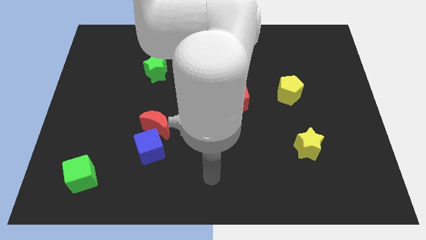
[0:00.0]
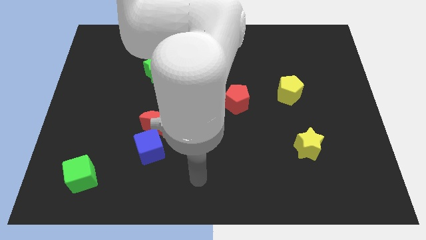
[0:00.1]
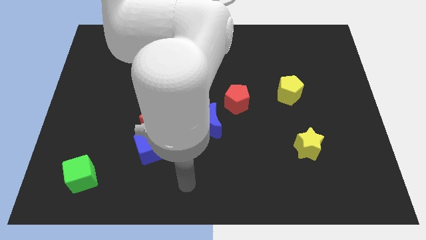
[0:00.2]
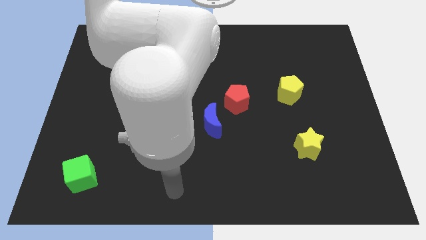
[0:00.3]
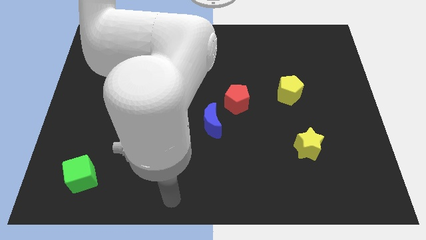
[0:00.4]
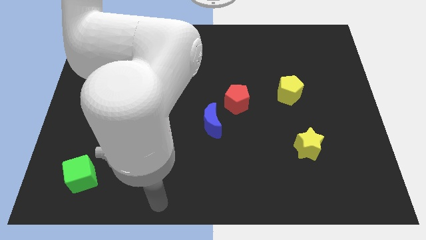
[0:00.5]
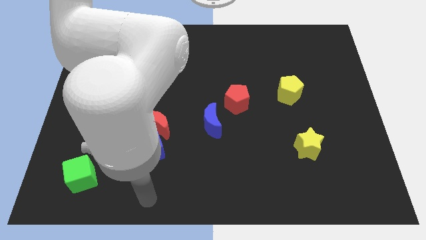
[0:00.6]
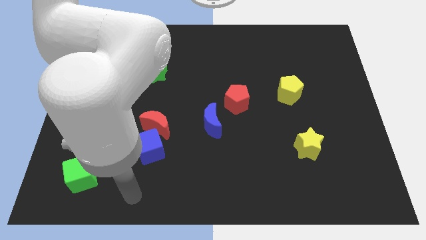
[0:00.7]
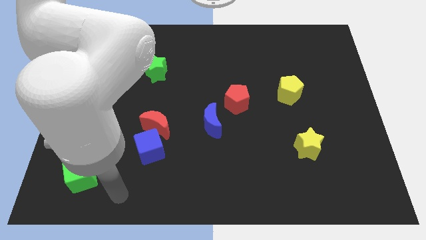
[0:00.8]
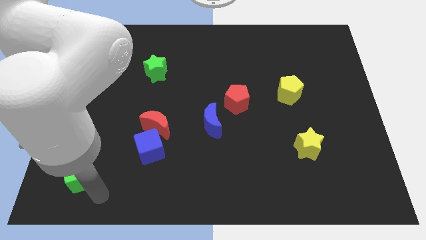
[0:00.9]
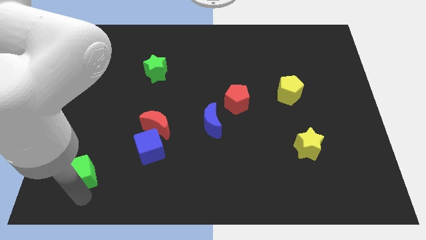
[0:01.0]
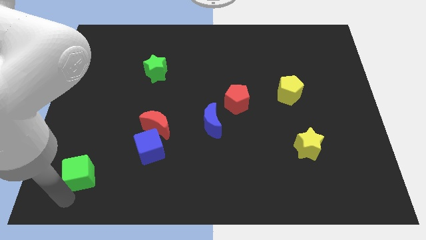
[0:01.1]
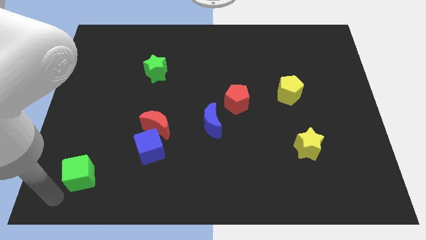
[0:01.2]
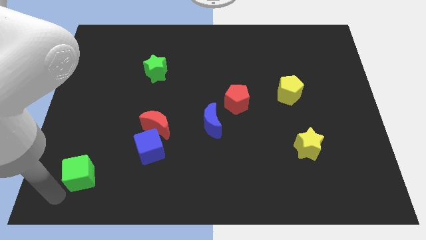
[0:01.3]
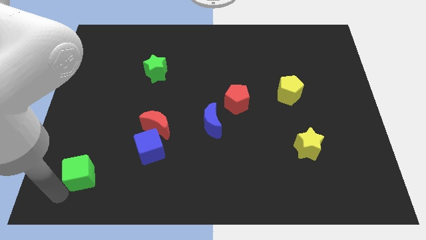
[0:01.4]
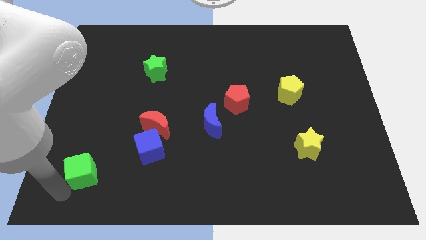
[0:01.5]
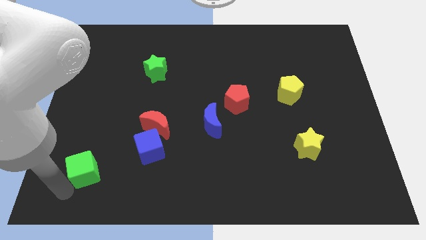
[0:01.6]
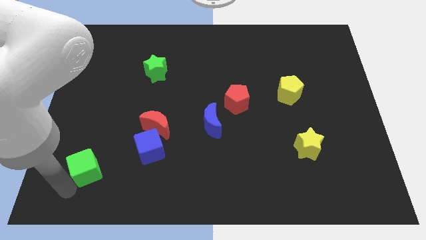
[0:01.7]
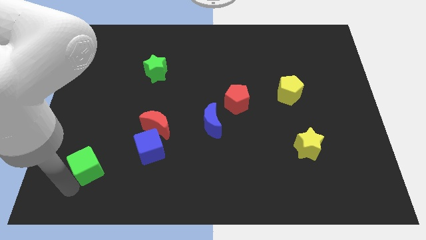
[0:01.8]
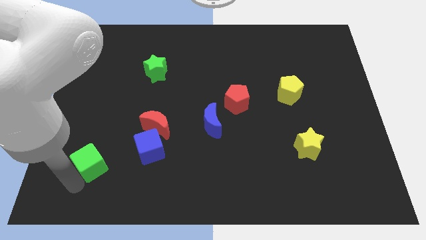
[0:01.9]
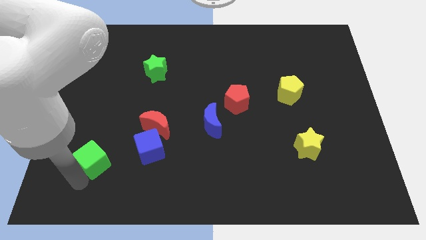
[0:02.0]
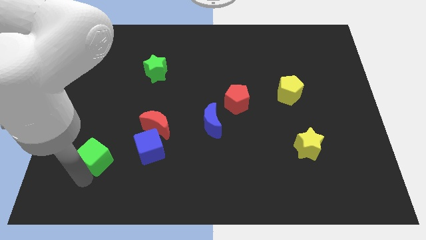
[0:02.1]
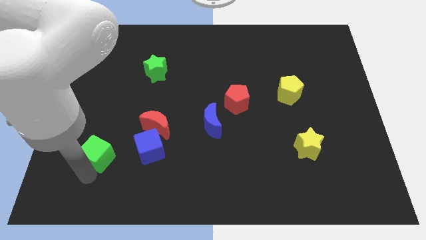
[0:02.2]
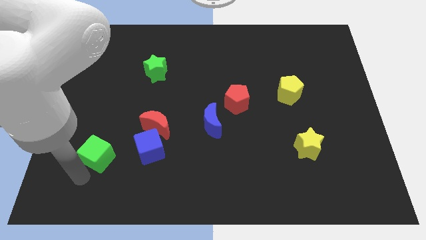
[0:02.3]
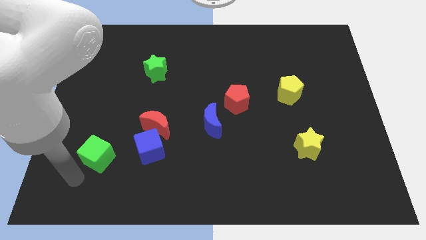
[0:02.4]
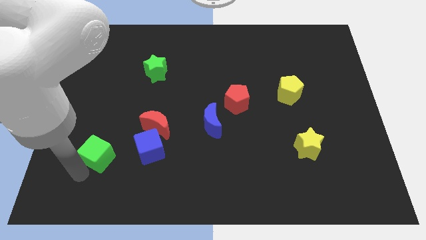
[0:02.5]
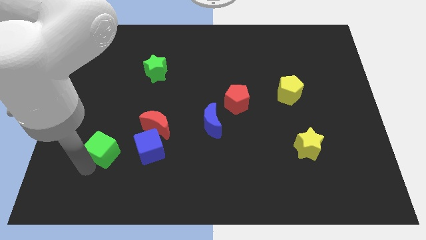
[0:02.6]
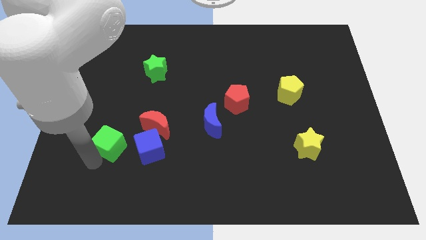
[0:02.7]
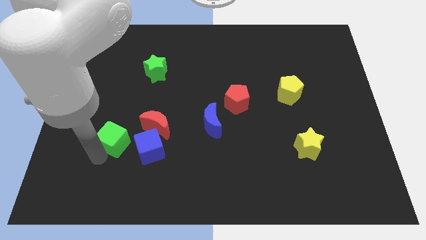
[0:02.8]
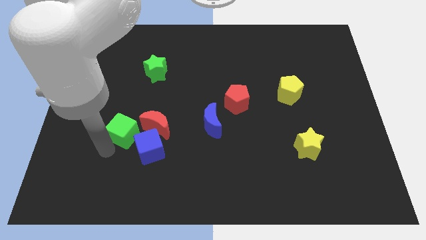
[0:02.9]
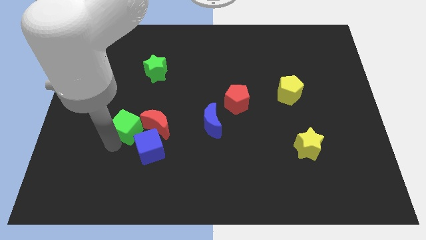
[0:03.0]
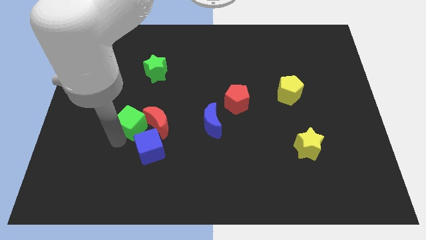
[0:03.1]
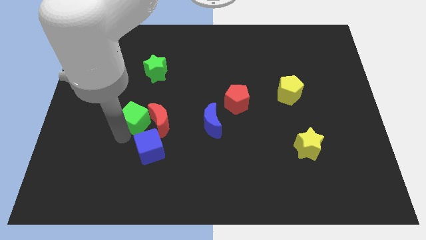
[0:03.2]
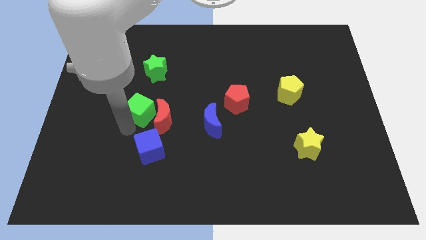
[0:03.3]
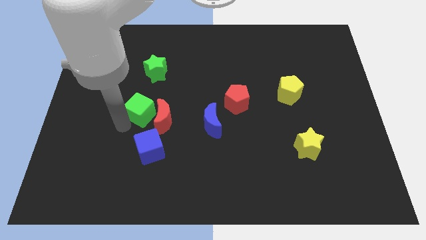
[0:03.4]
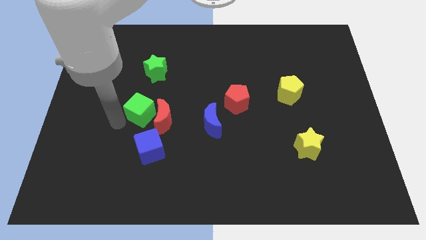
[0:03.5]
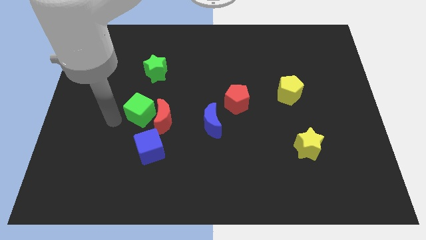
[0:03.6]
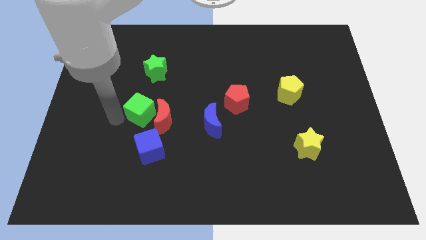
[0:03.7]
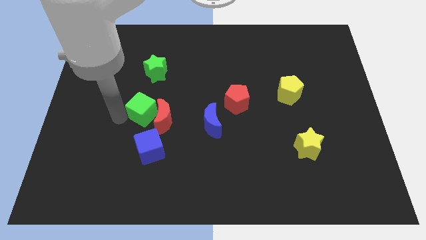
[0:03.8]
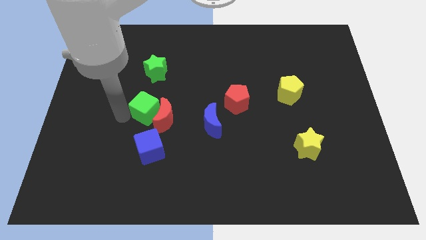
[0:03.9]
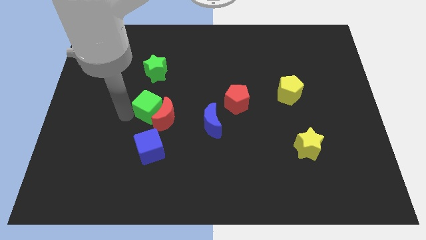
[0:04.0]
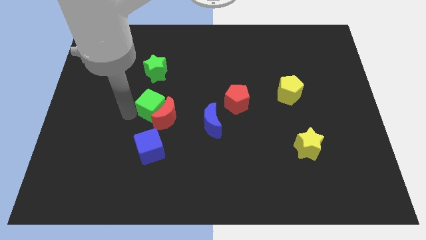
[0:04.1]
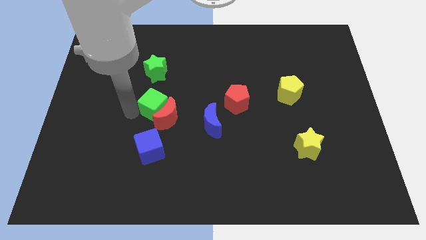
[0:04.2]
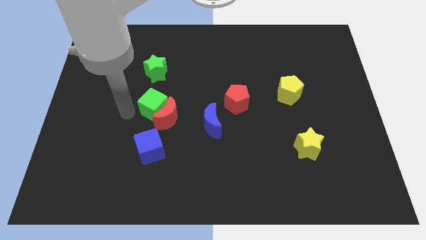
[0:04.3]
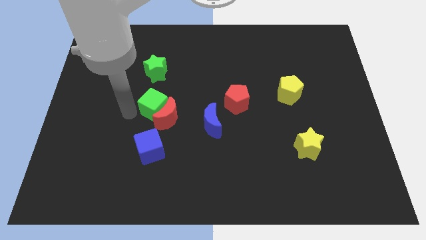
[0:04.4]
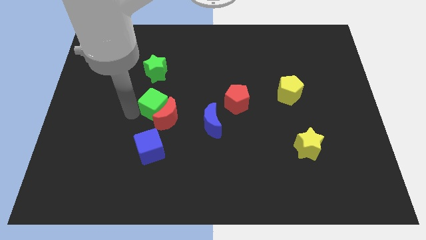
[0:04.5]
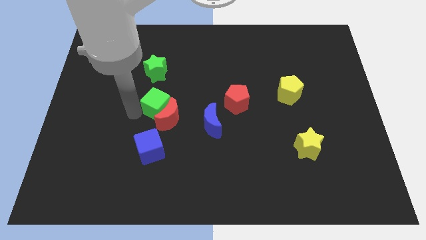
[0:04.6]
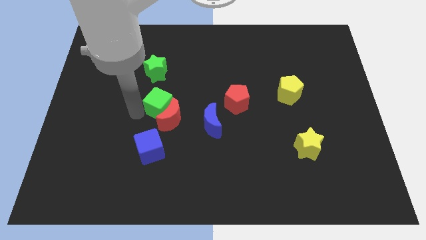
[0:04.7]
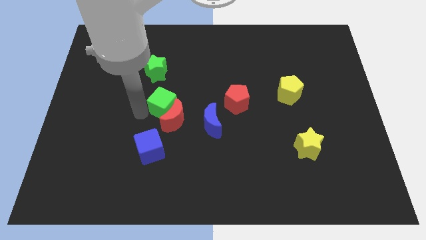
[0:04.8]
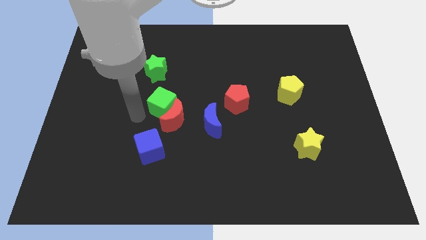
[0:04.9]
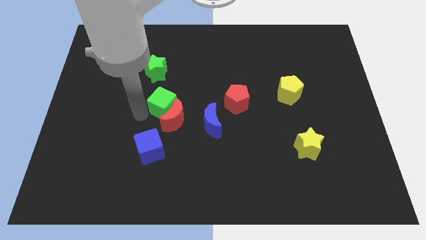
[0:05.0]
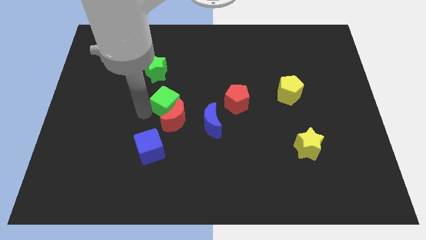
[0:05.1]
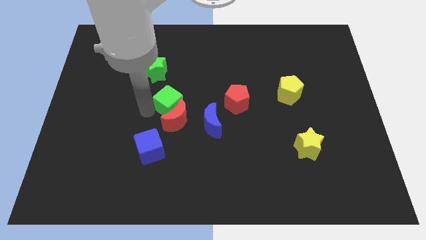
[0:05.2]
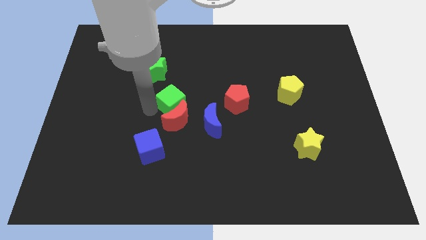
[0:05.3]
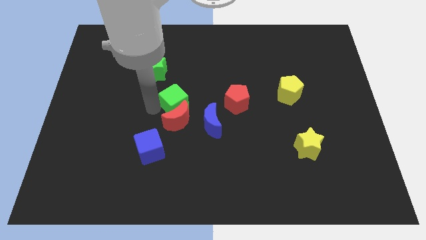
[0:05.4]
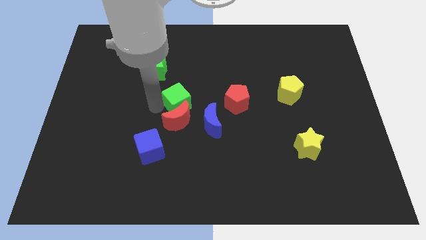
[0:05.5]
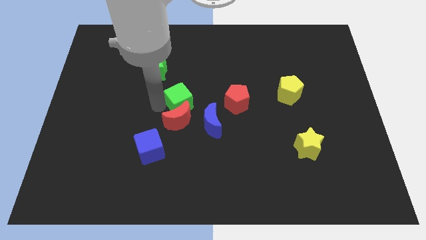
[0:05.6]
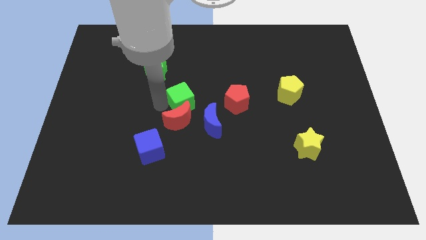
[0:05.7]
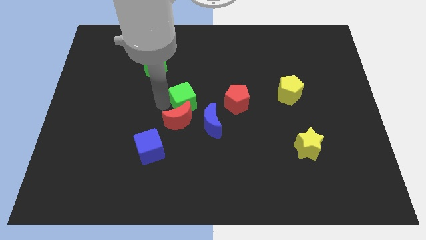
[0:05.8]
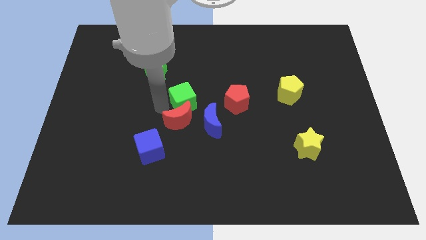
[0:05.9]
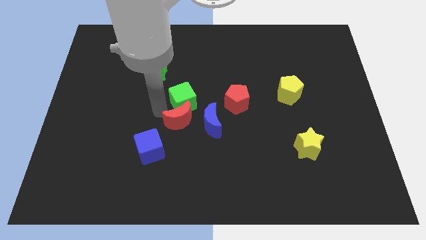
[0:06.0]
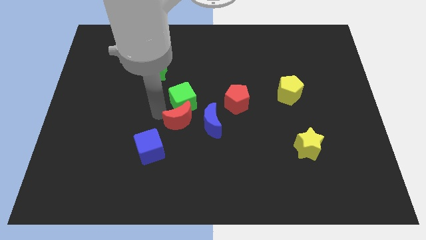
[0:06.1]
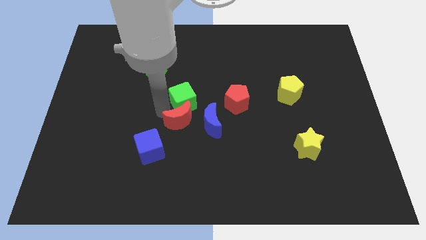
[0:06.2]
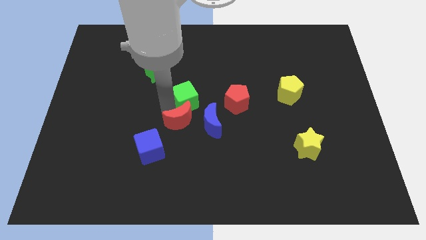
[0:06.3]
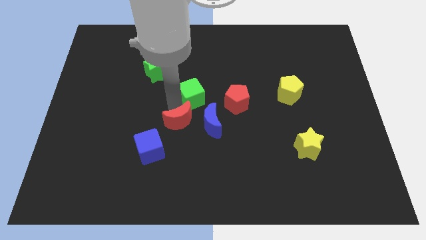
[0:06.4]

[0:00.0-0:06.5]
slide the green cube to the top side of the blue moon

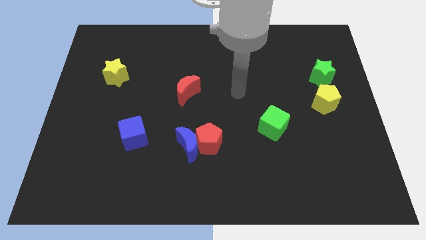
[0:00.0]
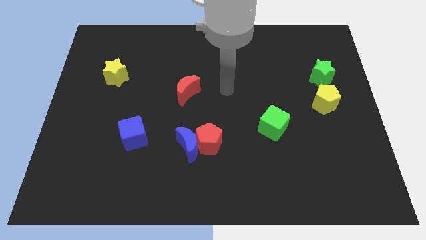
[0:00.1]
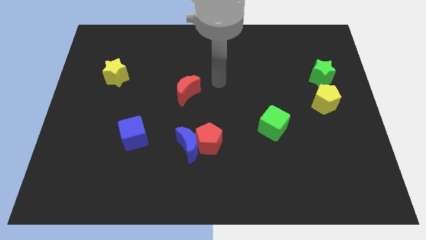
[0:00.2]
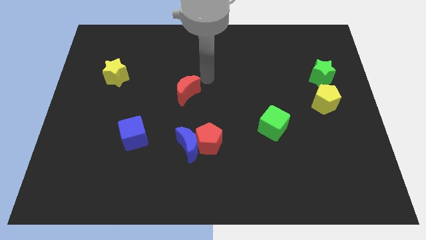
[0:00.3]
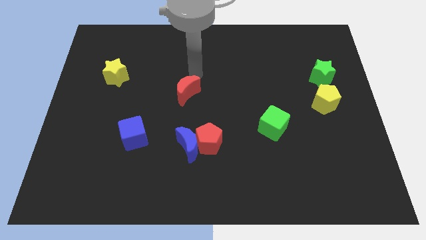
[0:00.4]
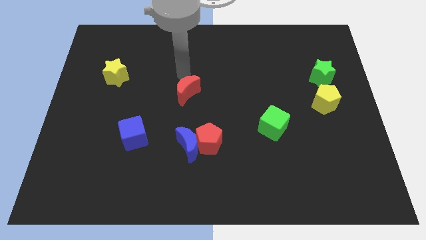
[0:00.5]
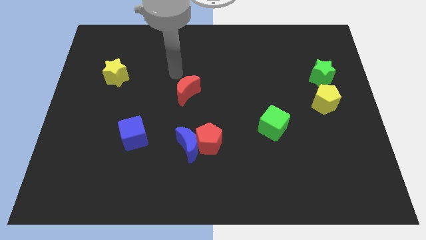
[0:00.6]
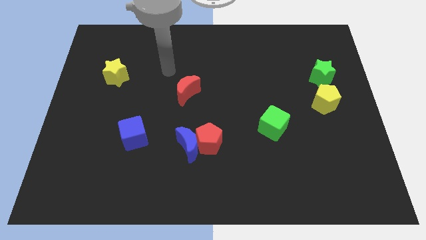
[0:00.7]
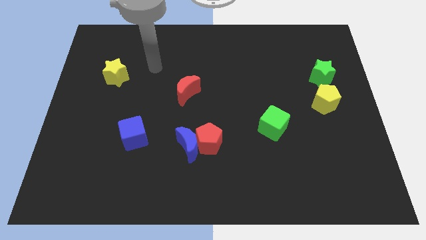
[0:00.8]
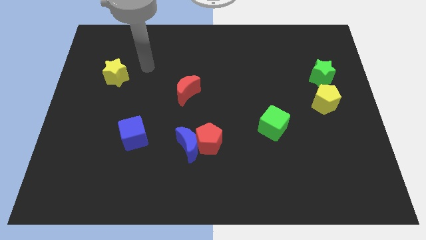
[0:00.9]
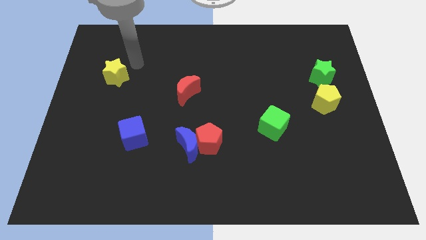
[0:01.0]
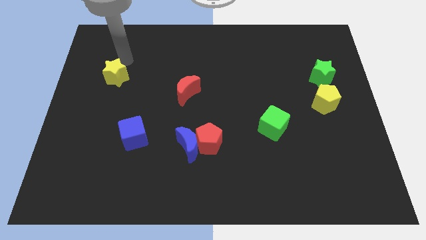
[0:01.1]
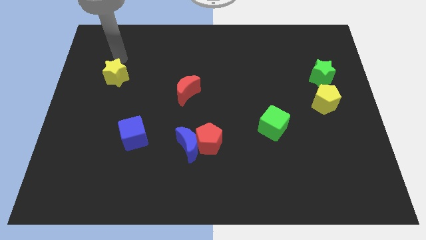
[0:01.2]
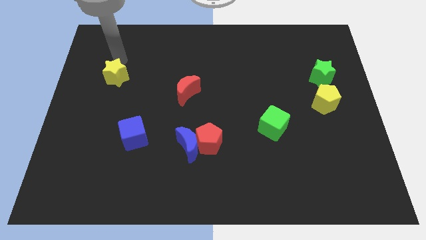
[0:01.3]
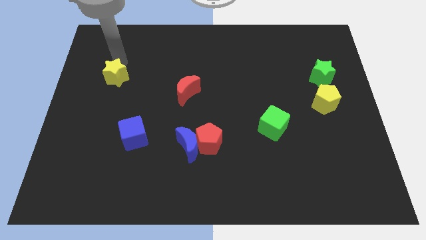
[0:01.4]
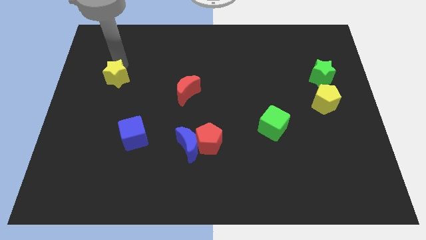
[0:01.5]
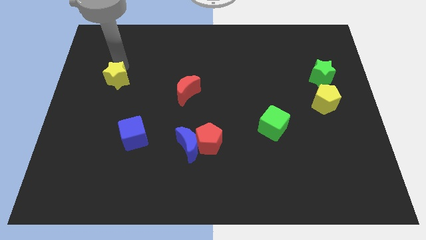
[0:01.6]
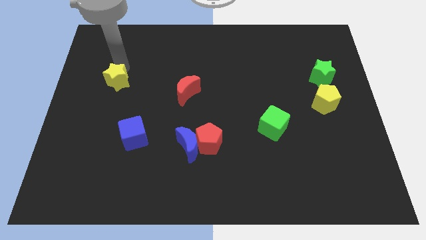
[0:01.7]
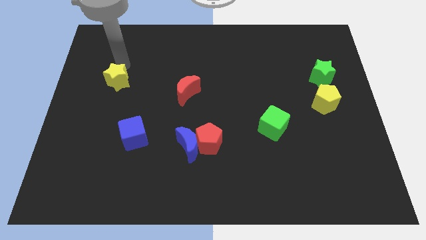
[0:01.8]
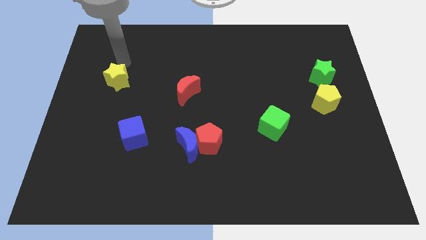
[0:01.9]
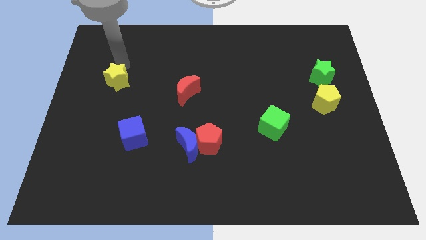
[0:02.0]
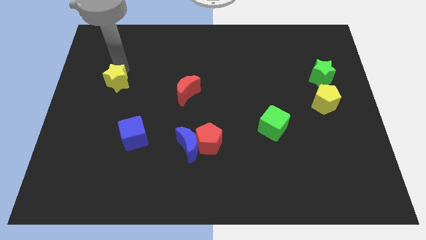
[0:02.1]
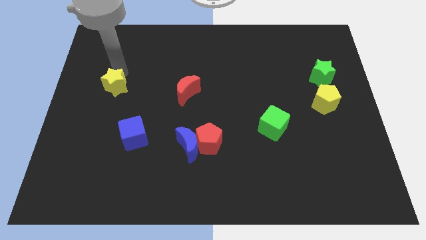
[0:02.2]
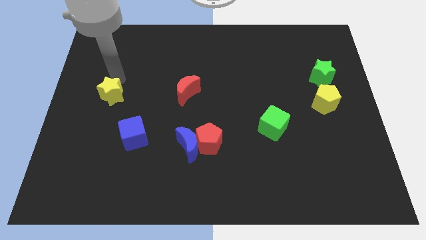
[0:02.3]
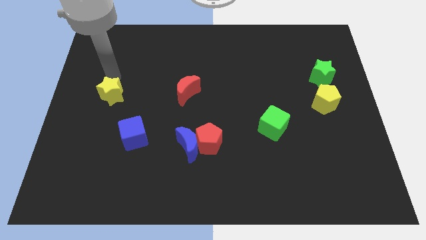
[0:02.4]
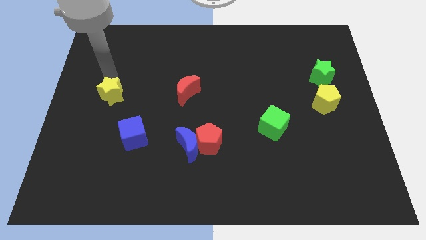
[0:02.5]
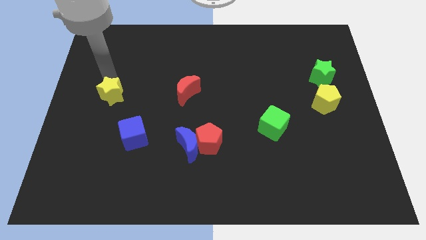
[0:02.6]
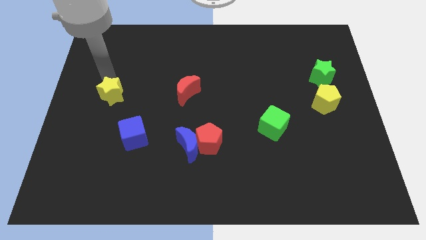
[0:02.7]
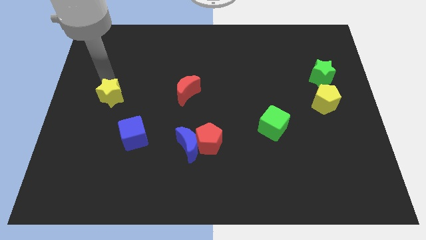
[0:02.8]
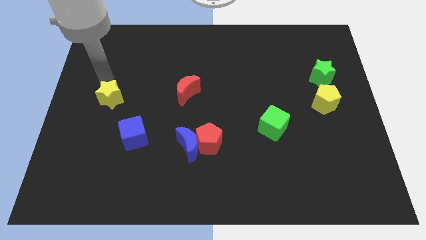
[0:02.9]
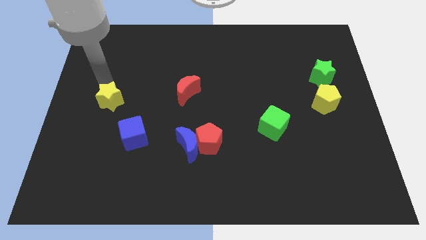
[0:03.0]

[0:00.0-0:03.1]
move the yellow star to the top left of the blue cube
